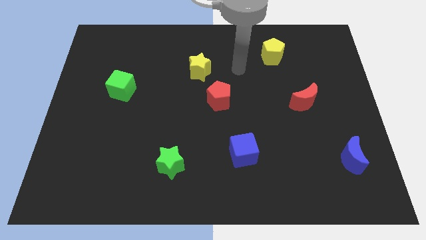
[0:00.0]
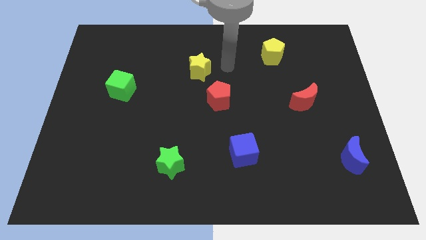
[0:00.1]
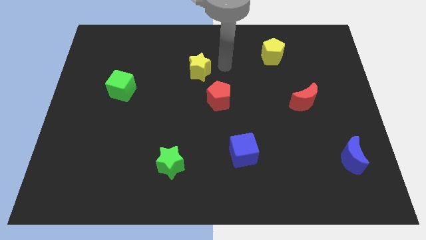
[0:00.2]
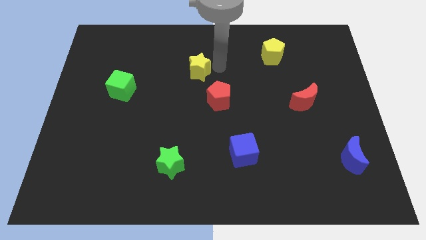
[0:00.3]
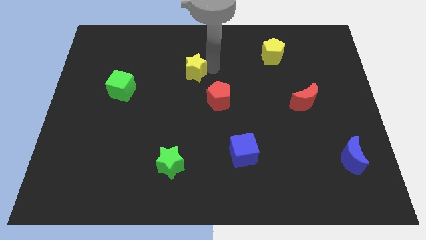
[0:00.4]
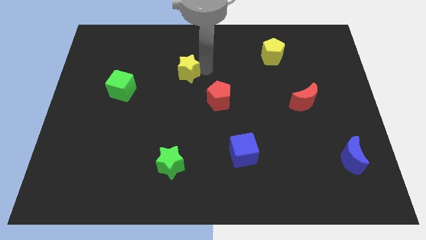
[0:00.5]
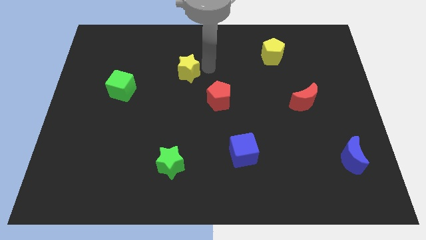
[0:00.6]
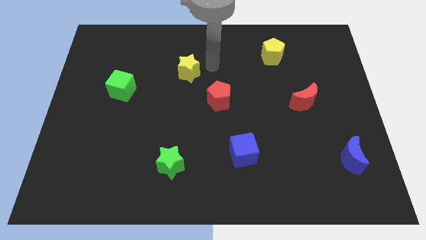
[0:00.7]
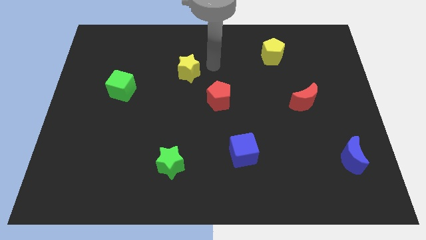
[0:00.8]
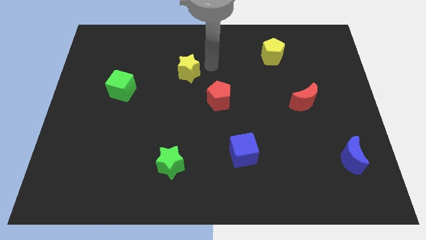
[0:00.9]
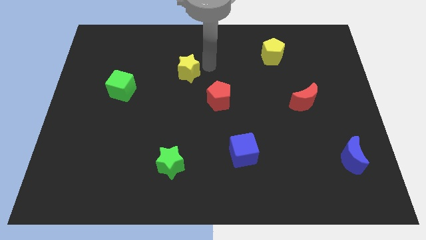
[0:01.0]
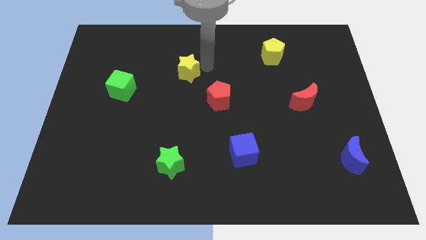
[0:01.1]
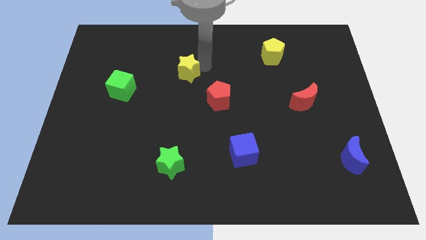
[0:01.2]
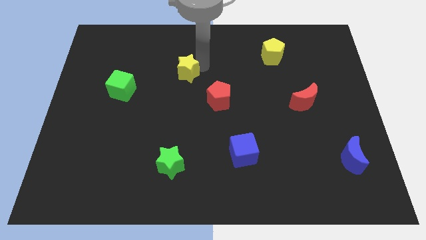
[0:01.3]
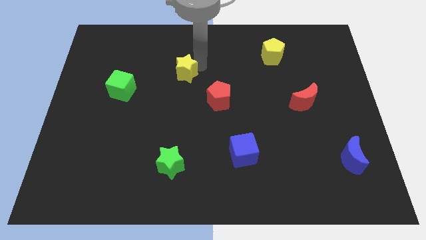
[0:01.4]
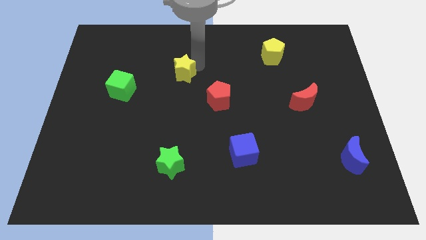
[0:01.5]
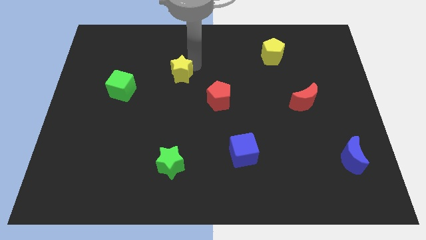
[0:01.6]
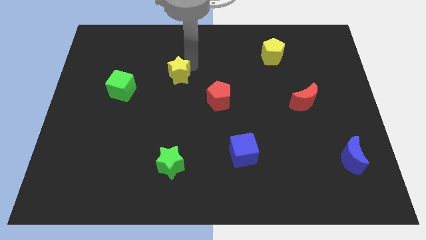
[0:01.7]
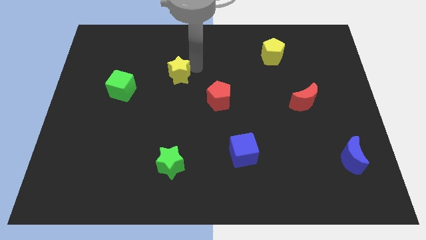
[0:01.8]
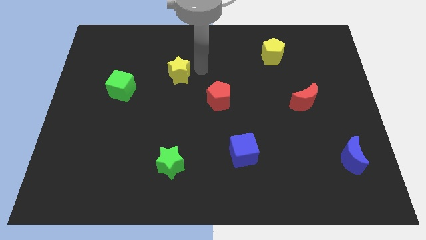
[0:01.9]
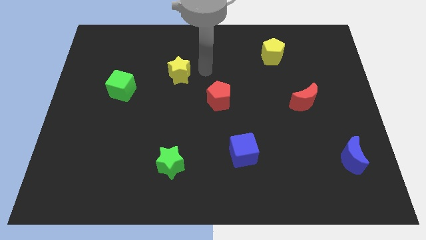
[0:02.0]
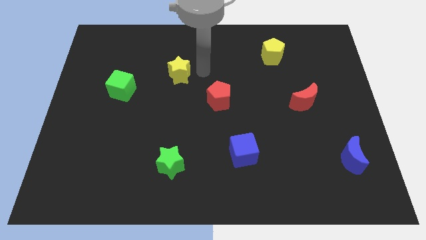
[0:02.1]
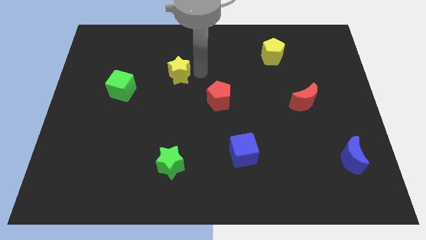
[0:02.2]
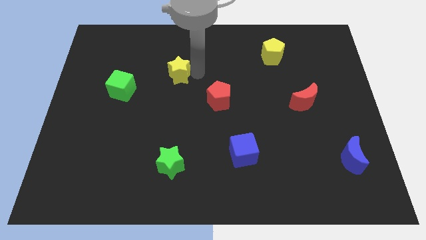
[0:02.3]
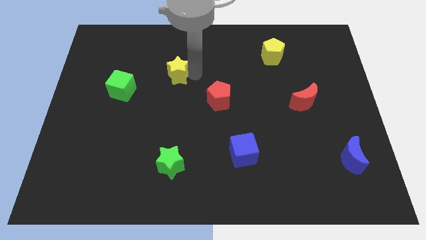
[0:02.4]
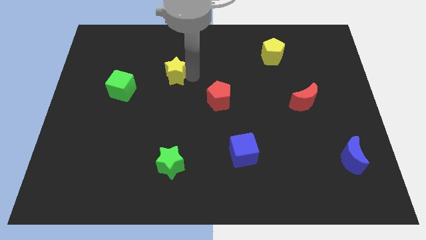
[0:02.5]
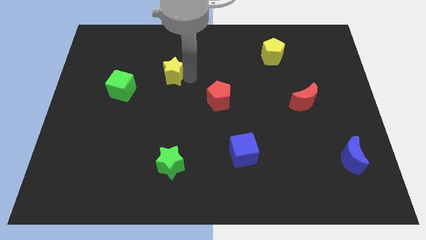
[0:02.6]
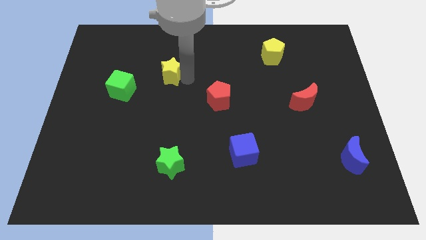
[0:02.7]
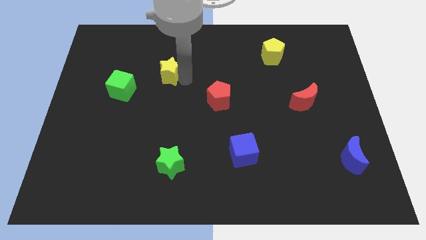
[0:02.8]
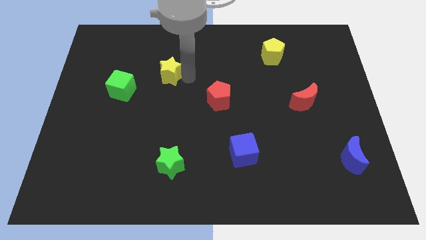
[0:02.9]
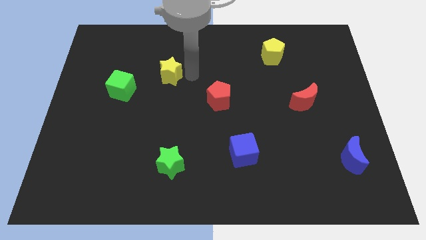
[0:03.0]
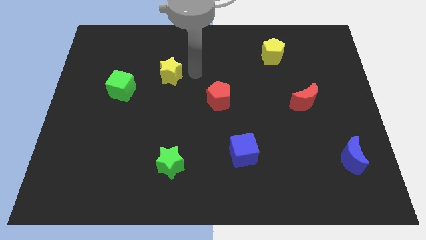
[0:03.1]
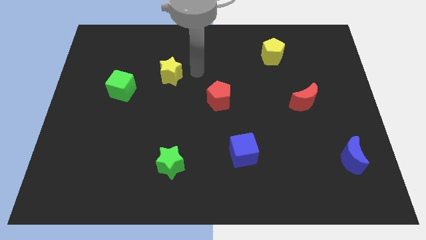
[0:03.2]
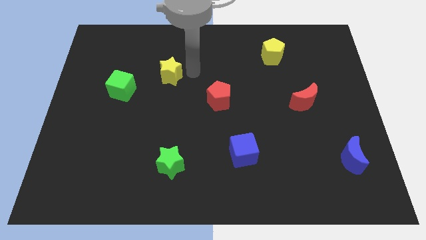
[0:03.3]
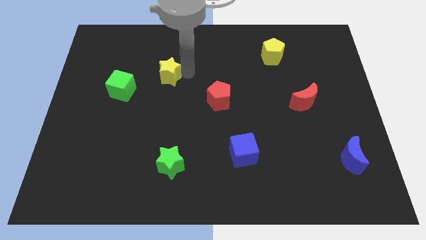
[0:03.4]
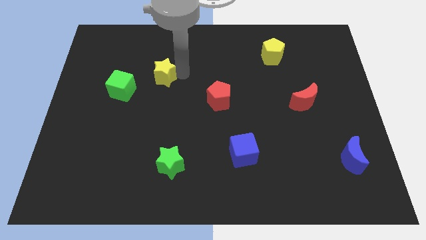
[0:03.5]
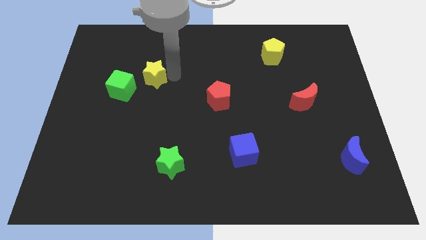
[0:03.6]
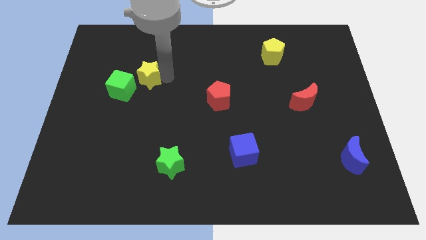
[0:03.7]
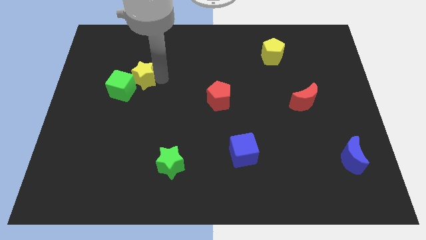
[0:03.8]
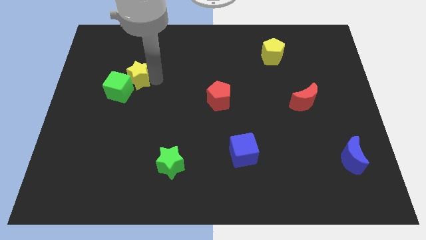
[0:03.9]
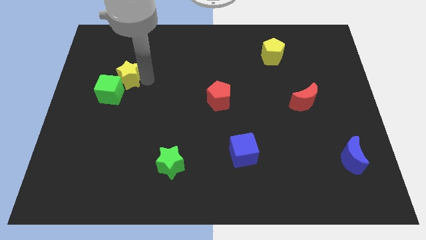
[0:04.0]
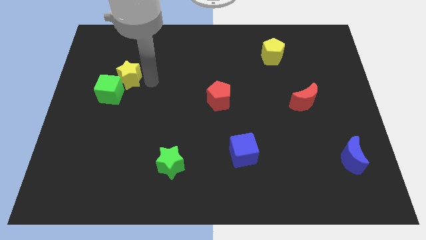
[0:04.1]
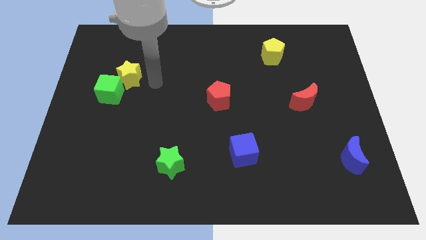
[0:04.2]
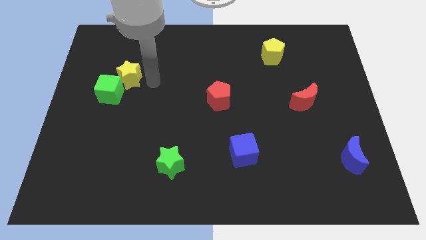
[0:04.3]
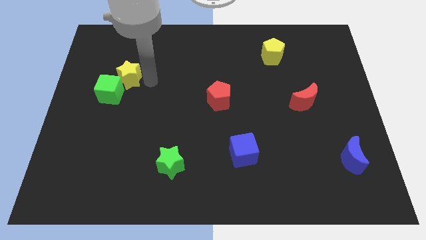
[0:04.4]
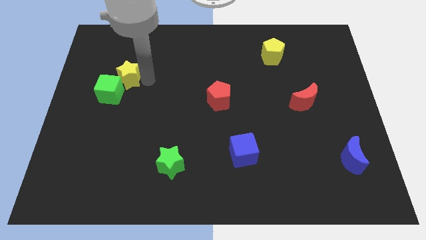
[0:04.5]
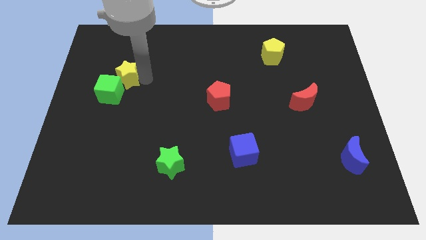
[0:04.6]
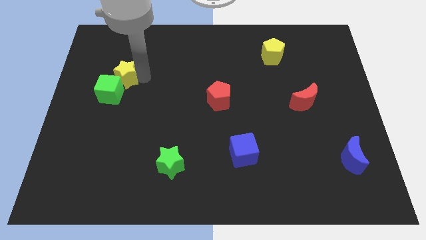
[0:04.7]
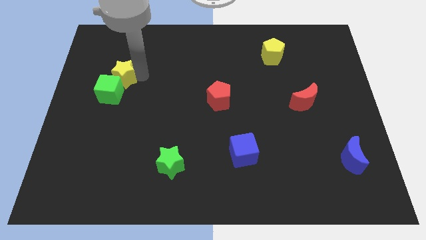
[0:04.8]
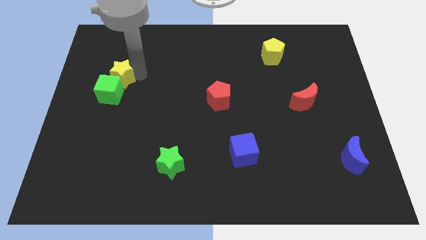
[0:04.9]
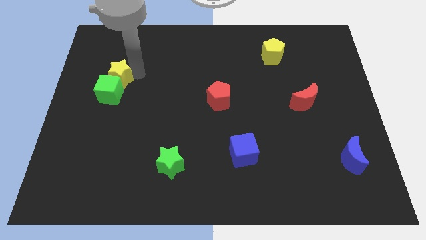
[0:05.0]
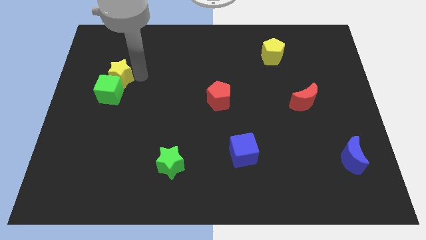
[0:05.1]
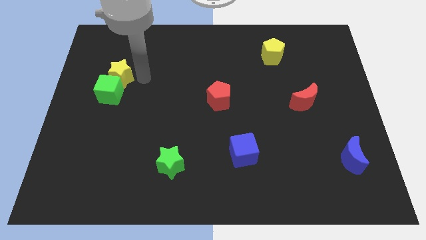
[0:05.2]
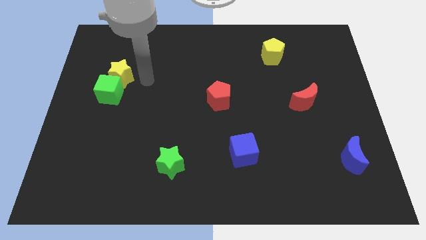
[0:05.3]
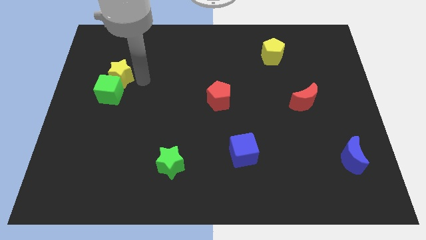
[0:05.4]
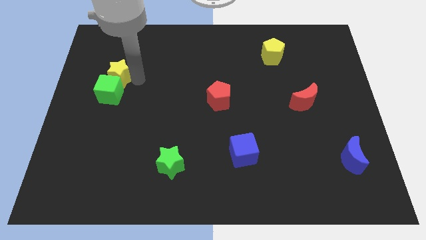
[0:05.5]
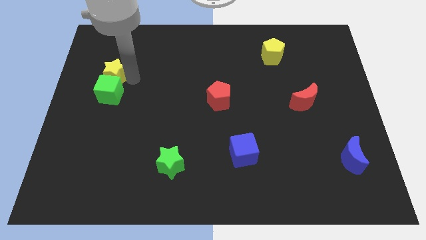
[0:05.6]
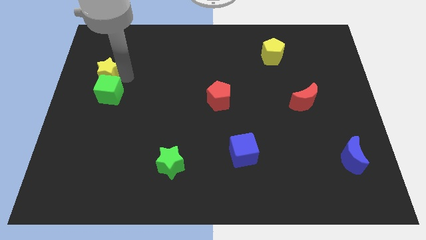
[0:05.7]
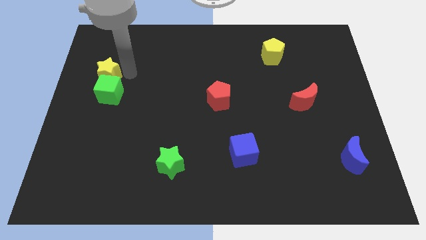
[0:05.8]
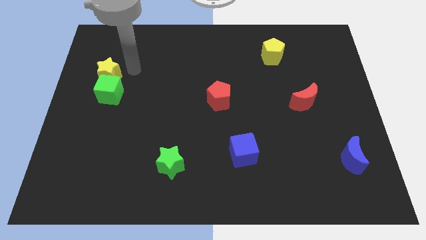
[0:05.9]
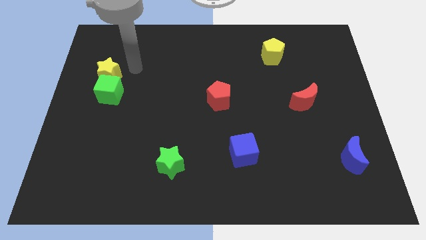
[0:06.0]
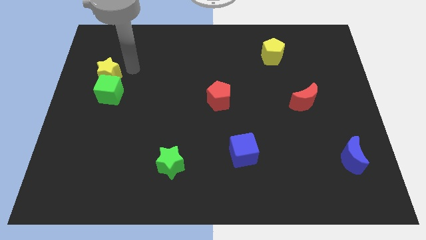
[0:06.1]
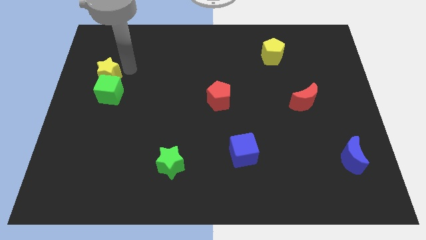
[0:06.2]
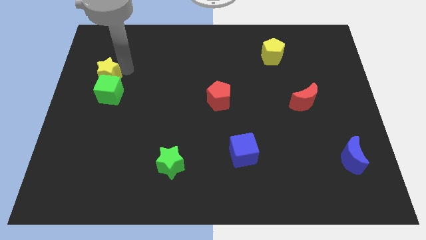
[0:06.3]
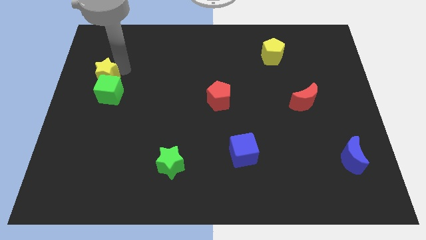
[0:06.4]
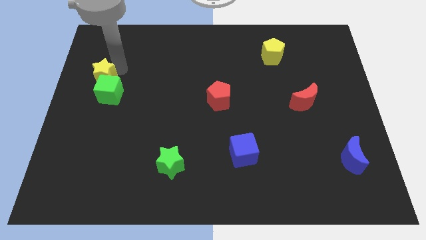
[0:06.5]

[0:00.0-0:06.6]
put the yellow star to the center left
